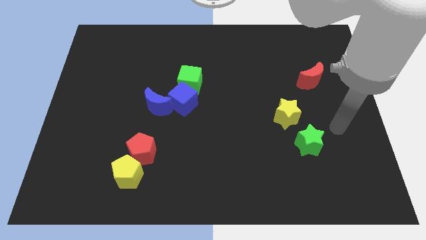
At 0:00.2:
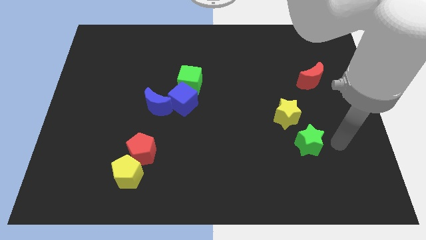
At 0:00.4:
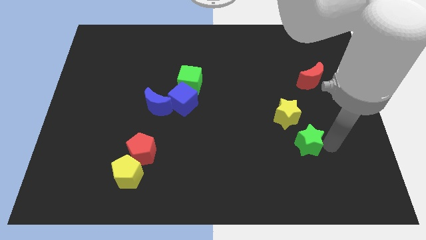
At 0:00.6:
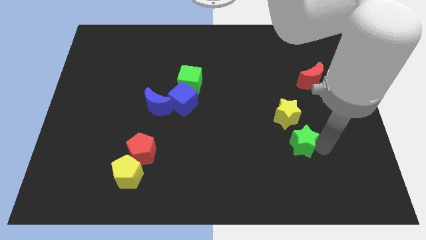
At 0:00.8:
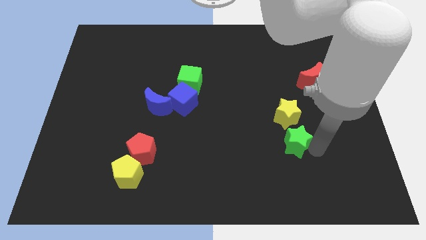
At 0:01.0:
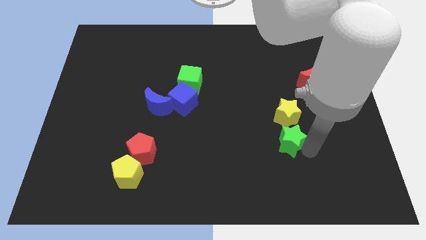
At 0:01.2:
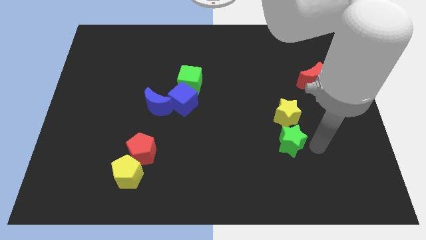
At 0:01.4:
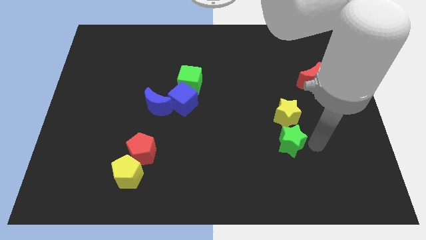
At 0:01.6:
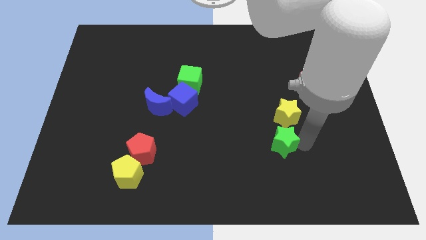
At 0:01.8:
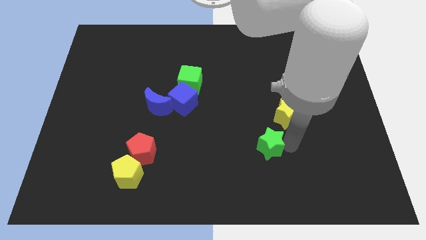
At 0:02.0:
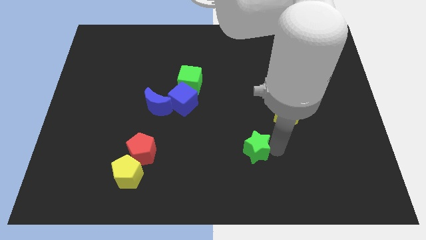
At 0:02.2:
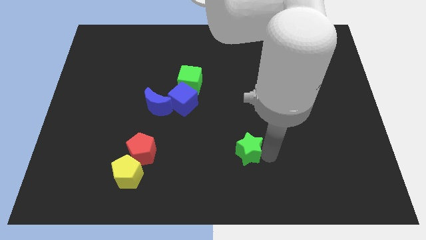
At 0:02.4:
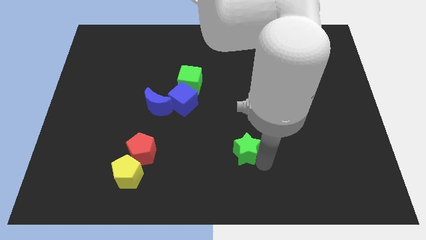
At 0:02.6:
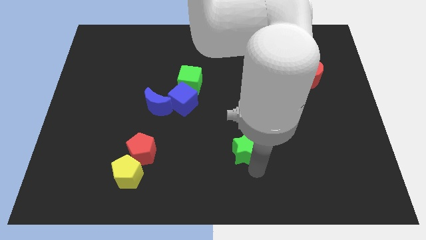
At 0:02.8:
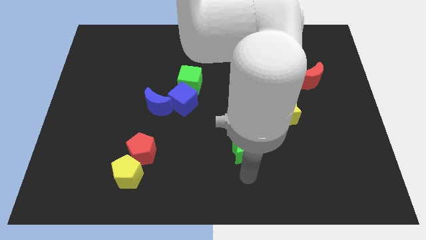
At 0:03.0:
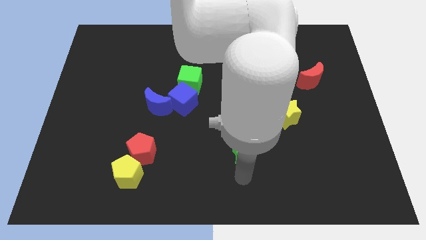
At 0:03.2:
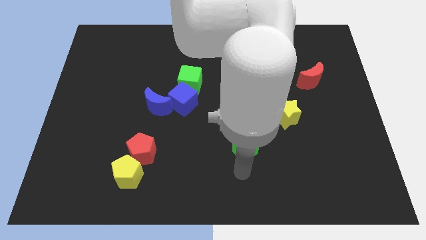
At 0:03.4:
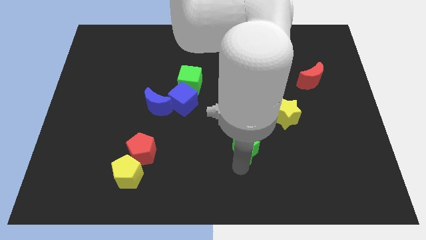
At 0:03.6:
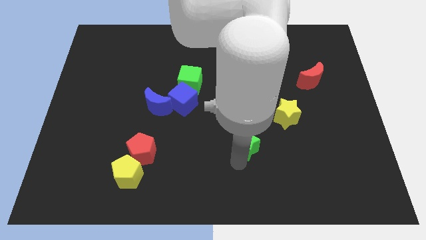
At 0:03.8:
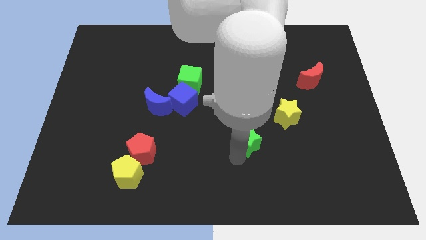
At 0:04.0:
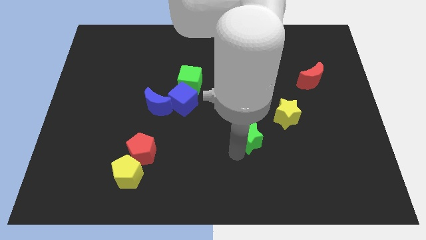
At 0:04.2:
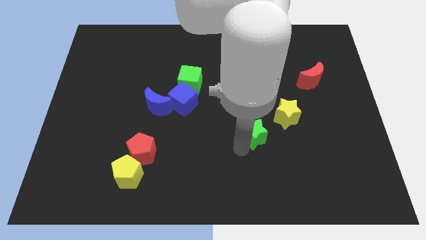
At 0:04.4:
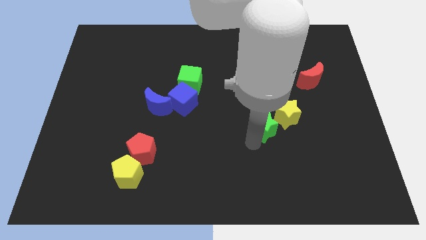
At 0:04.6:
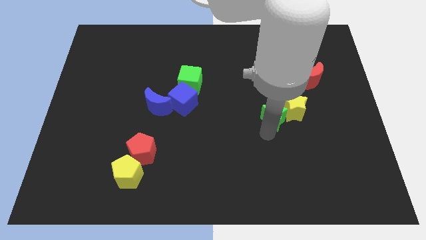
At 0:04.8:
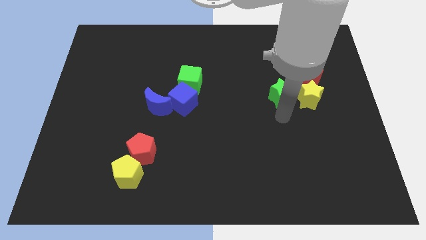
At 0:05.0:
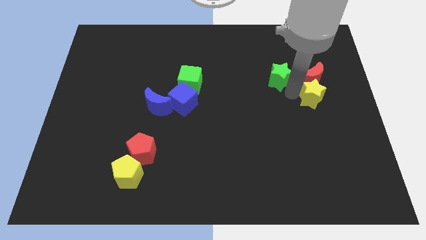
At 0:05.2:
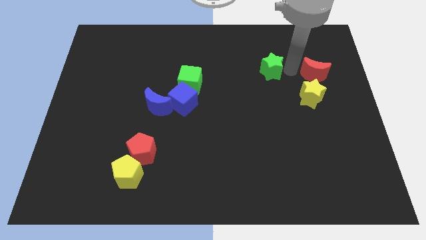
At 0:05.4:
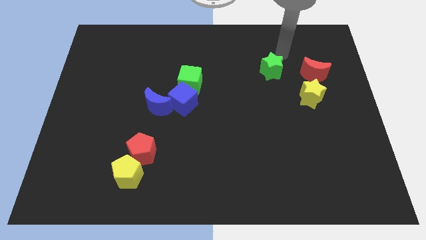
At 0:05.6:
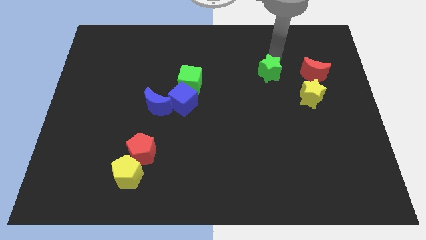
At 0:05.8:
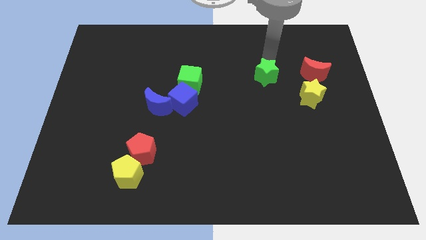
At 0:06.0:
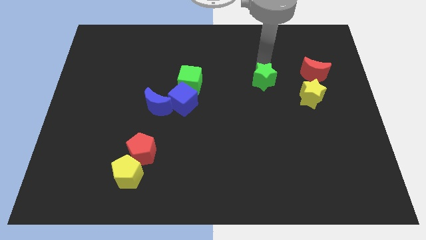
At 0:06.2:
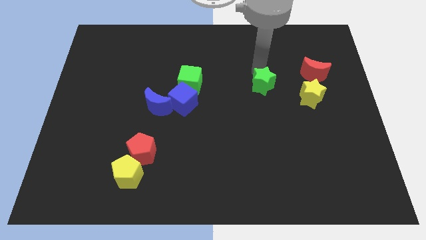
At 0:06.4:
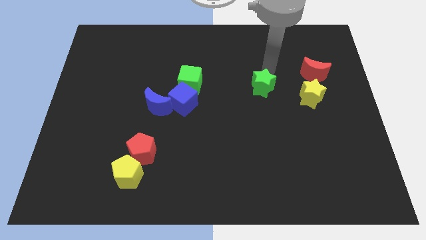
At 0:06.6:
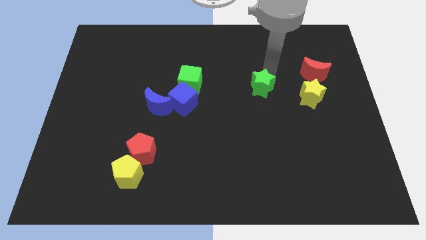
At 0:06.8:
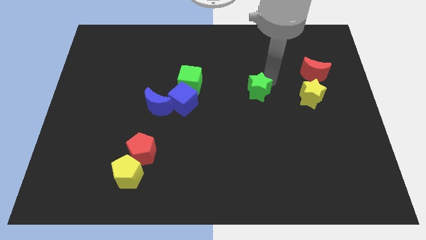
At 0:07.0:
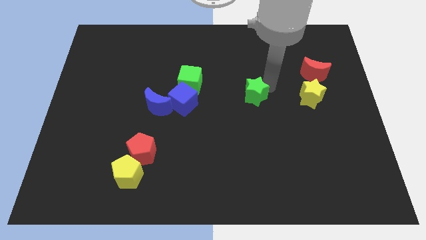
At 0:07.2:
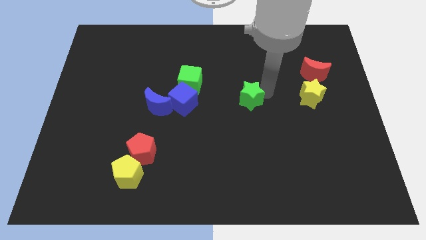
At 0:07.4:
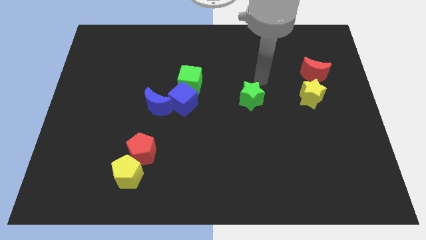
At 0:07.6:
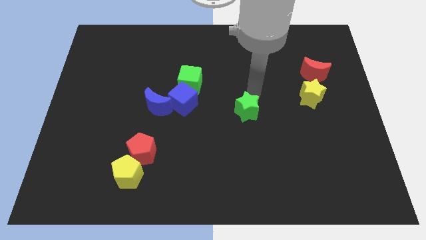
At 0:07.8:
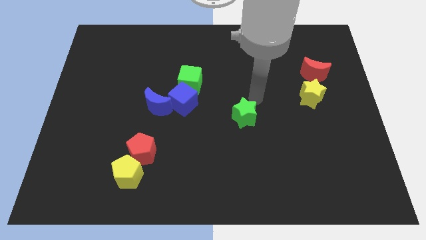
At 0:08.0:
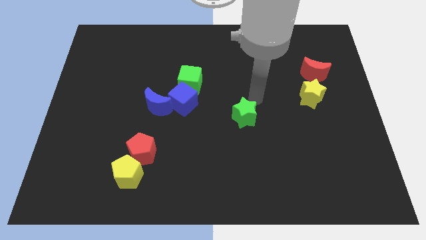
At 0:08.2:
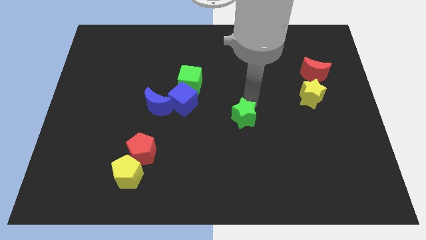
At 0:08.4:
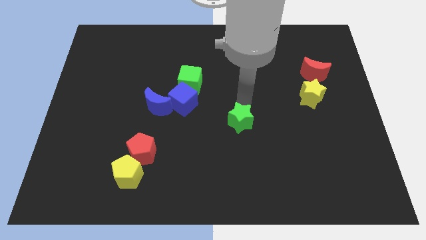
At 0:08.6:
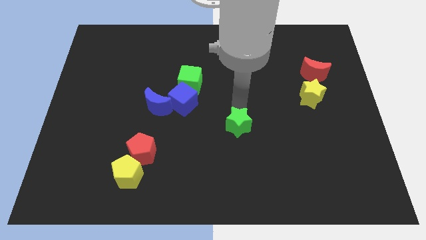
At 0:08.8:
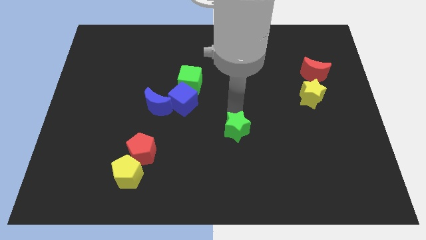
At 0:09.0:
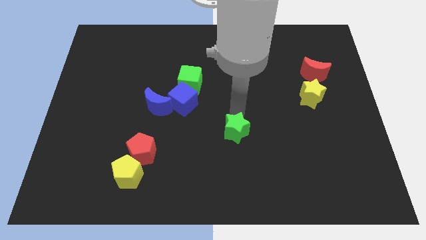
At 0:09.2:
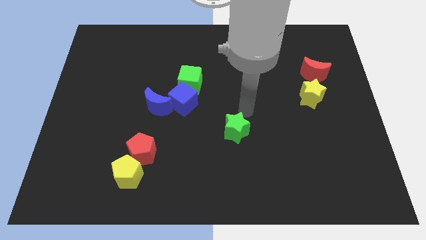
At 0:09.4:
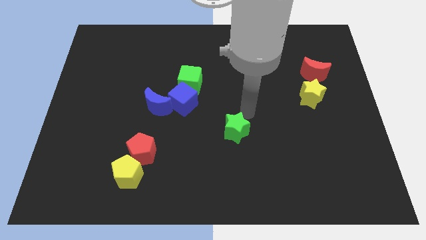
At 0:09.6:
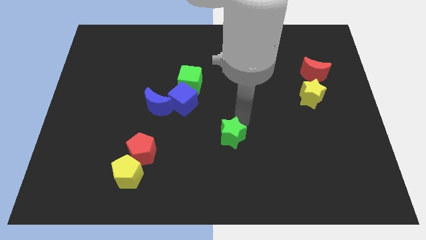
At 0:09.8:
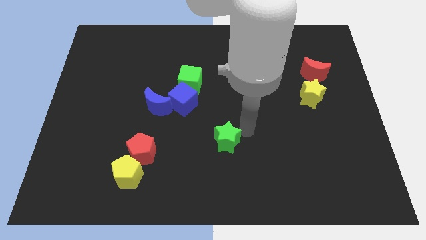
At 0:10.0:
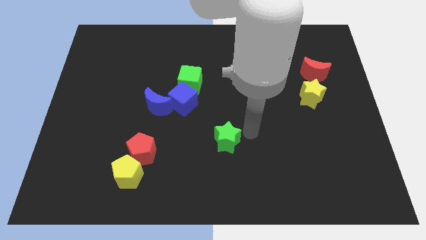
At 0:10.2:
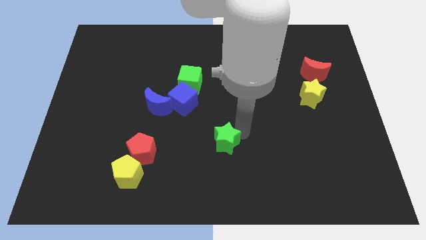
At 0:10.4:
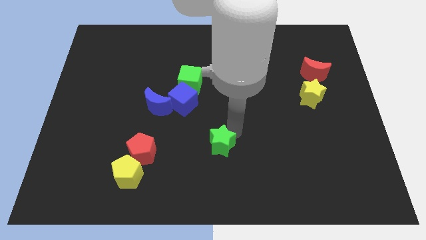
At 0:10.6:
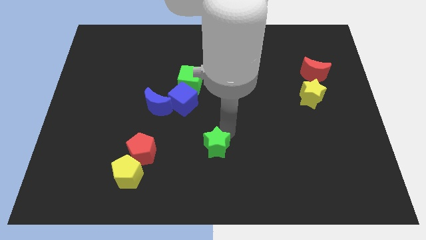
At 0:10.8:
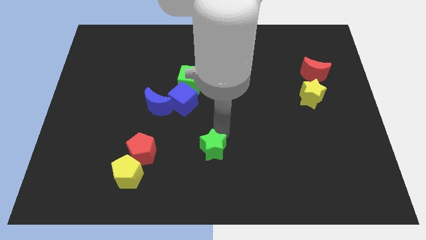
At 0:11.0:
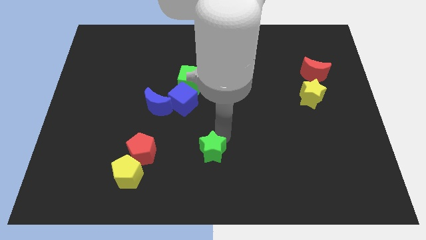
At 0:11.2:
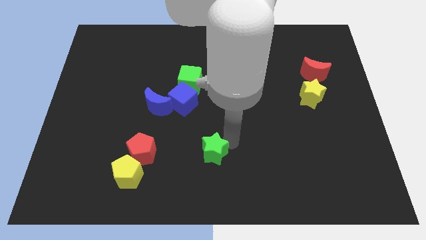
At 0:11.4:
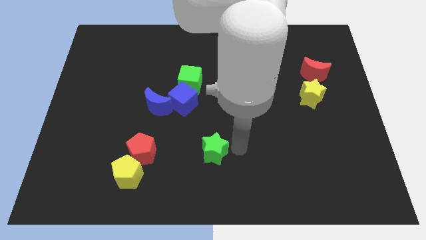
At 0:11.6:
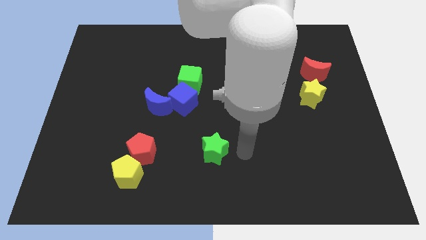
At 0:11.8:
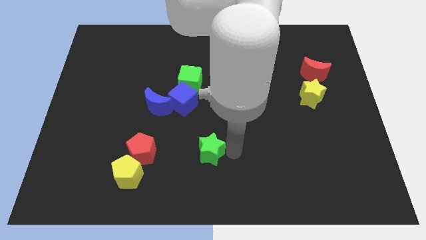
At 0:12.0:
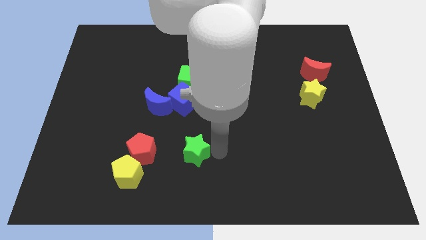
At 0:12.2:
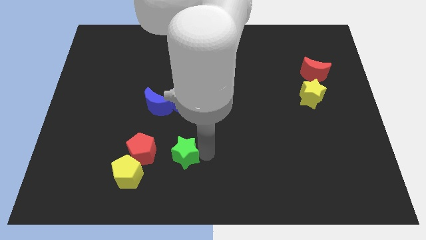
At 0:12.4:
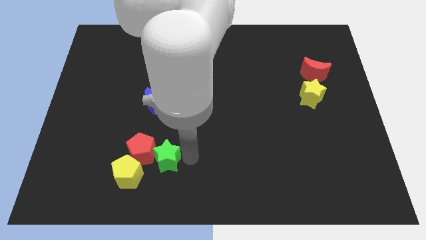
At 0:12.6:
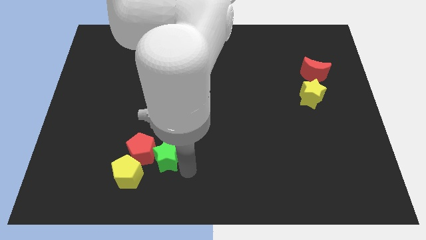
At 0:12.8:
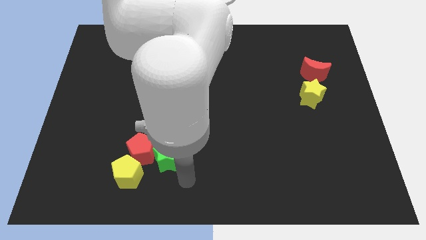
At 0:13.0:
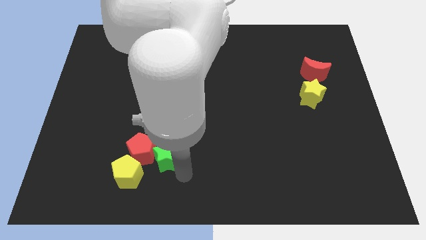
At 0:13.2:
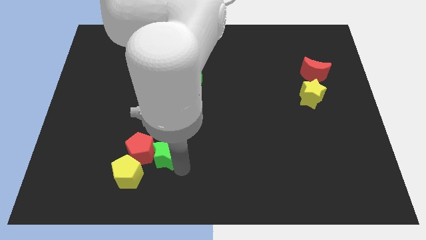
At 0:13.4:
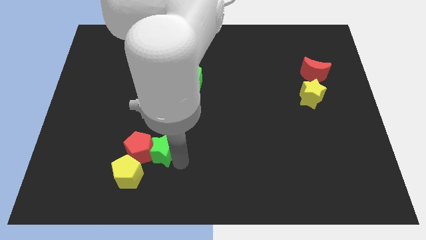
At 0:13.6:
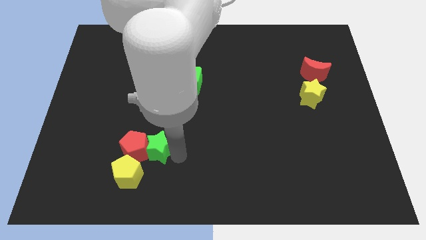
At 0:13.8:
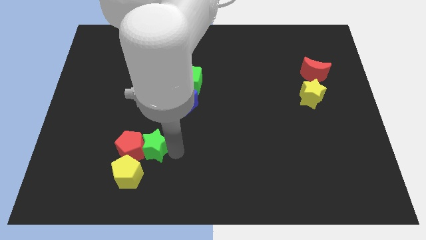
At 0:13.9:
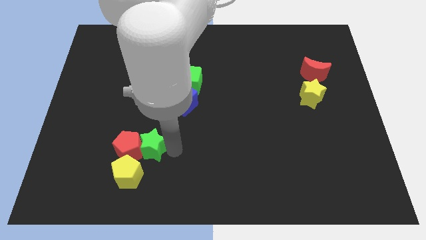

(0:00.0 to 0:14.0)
put the green star to the top of the yellow pentagon
